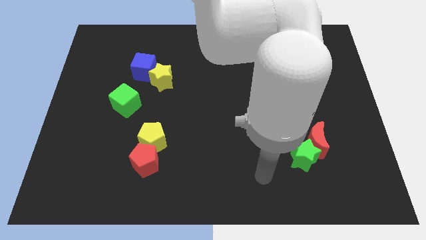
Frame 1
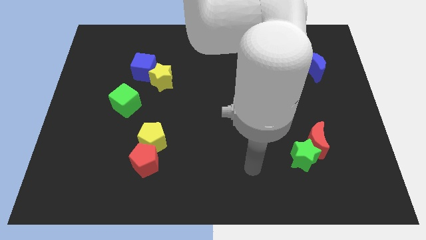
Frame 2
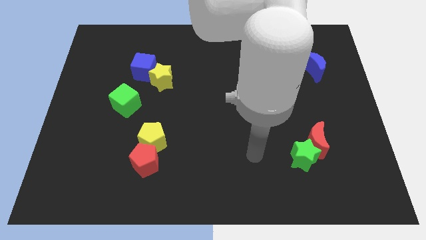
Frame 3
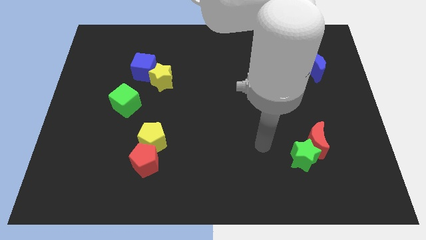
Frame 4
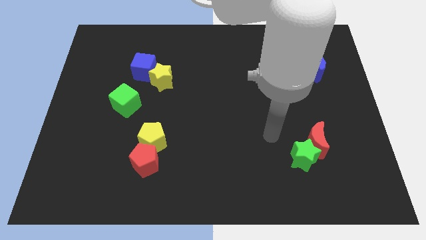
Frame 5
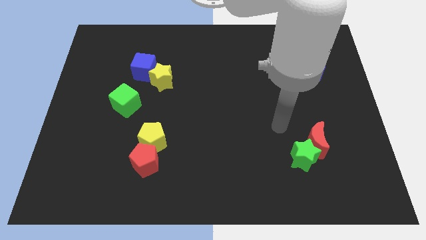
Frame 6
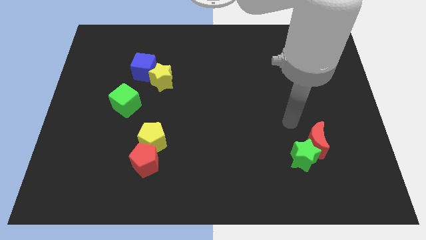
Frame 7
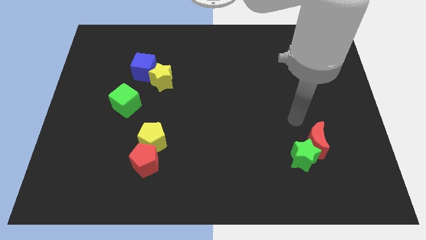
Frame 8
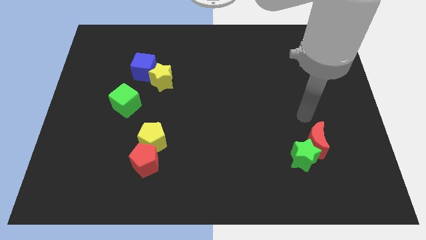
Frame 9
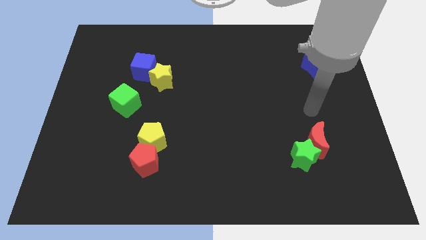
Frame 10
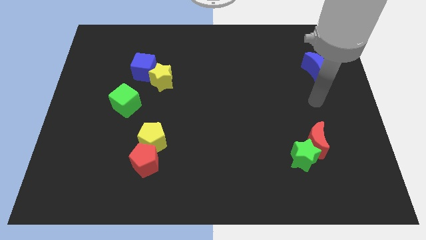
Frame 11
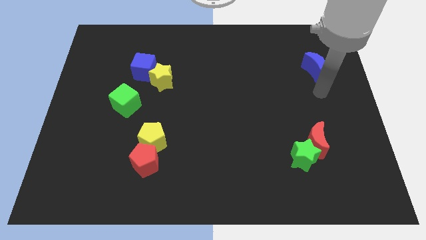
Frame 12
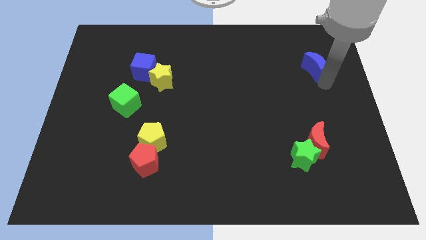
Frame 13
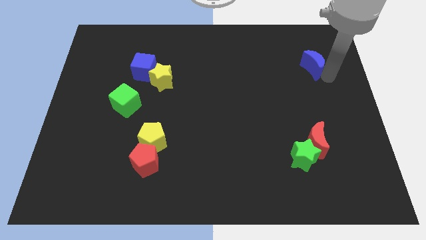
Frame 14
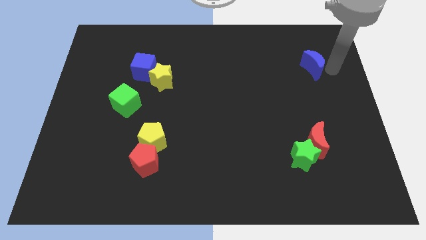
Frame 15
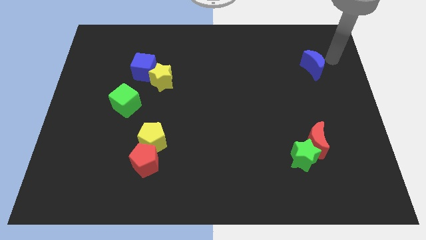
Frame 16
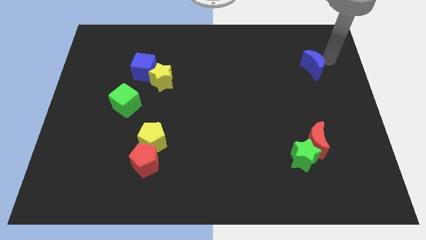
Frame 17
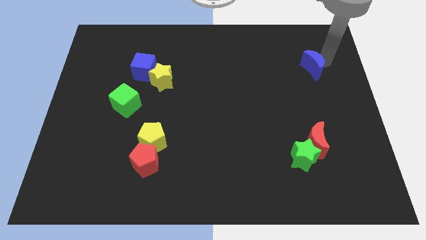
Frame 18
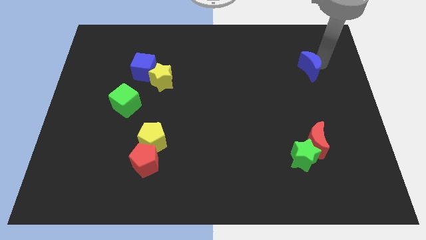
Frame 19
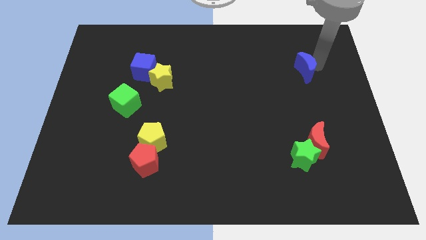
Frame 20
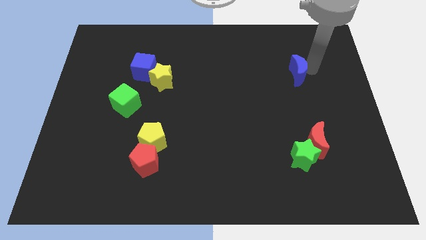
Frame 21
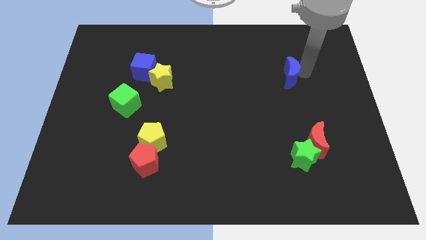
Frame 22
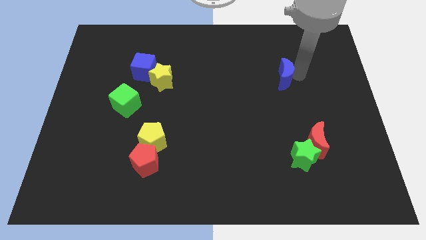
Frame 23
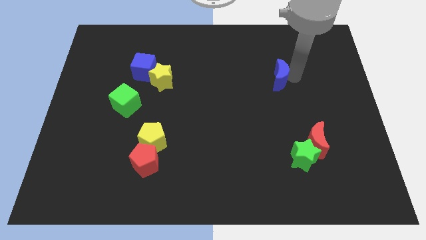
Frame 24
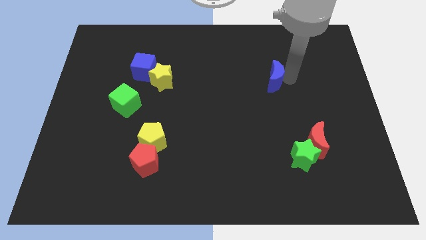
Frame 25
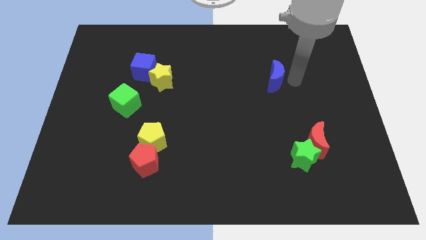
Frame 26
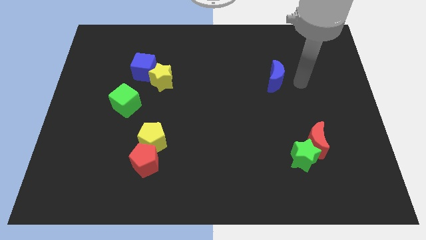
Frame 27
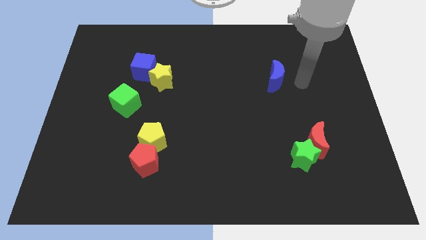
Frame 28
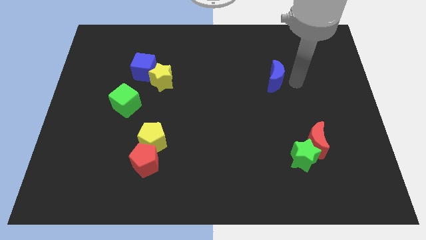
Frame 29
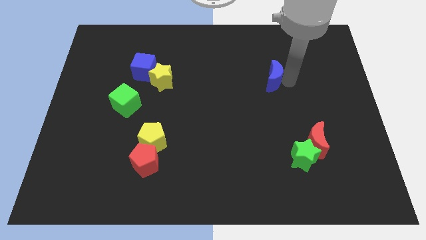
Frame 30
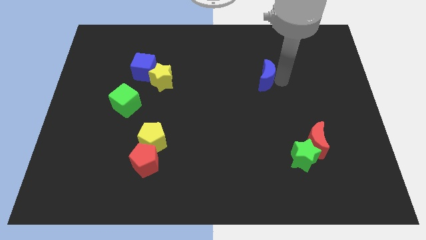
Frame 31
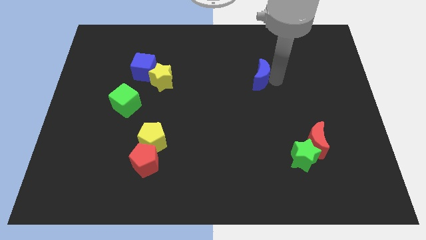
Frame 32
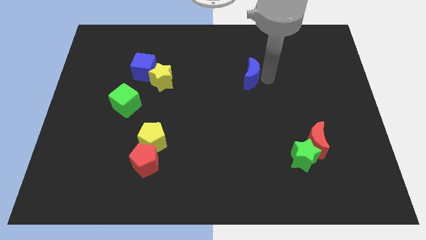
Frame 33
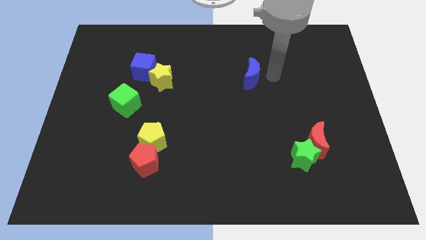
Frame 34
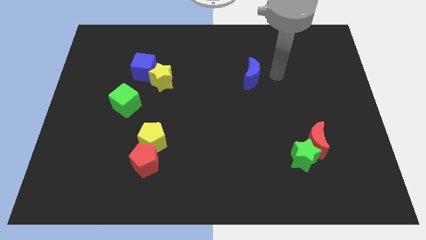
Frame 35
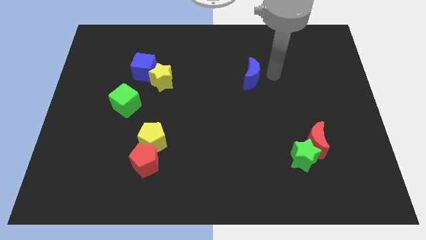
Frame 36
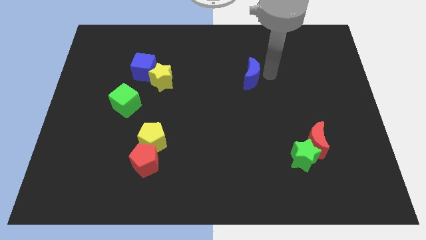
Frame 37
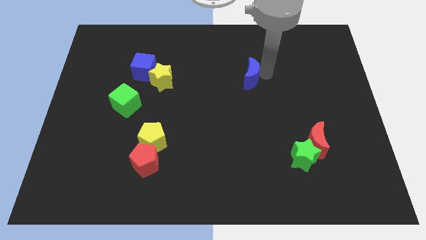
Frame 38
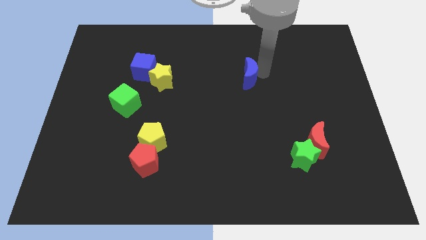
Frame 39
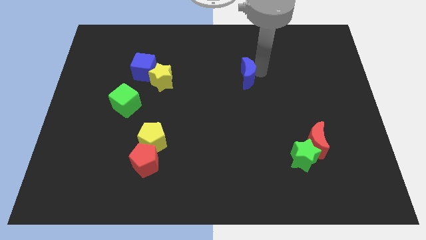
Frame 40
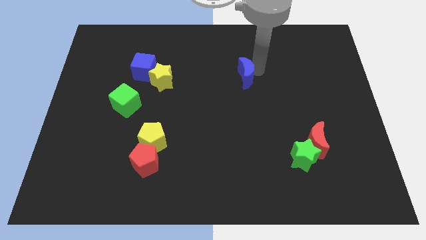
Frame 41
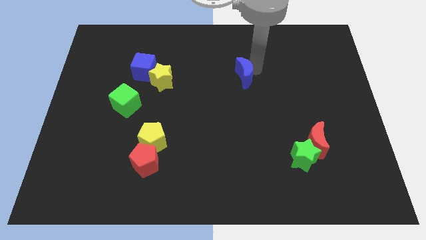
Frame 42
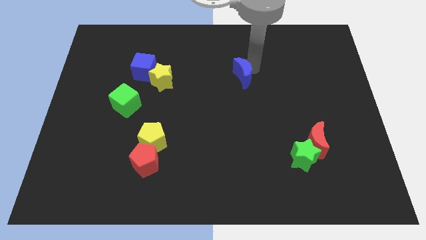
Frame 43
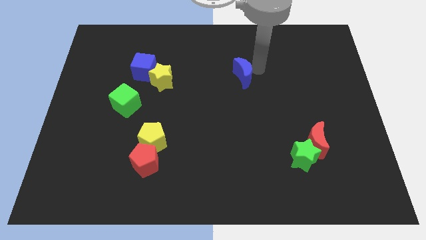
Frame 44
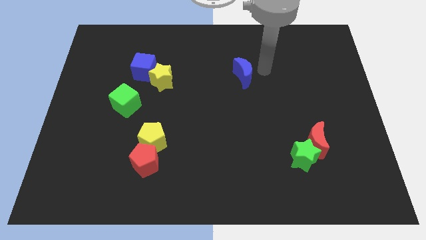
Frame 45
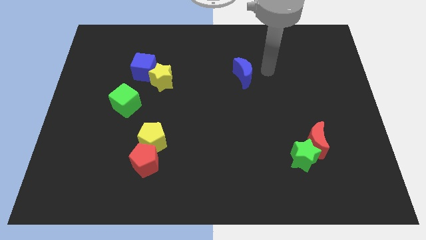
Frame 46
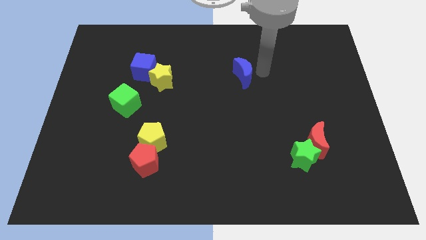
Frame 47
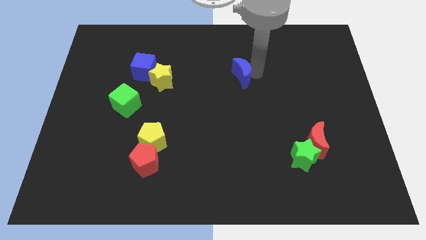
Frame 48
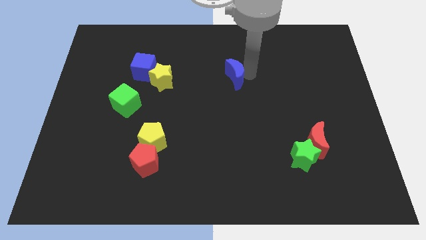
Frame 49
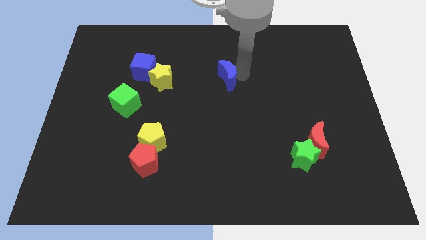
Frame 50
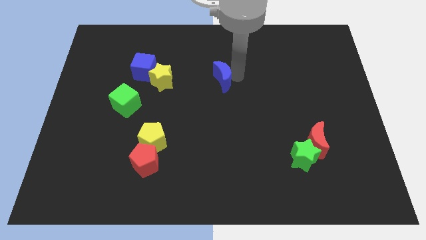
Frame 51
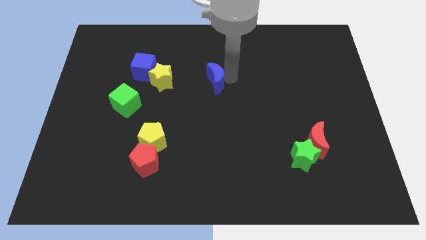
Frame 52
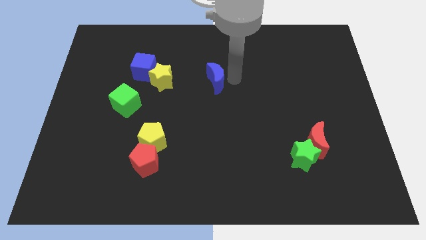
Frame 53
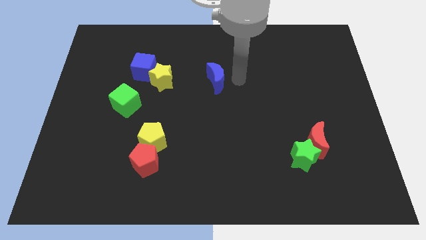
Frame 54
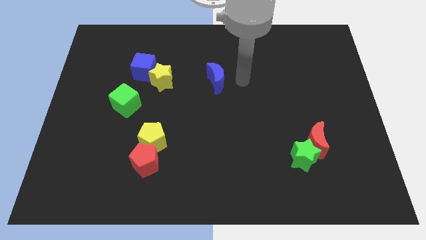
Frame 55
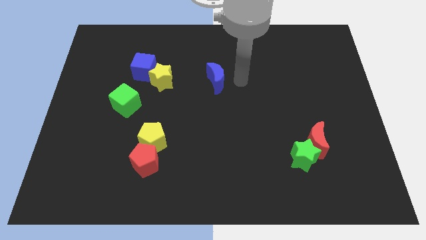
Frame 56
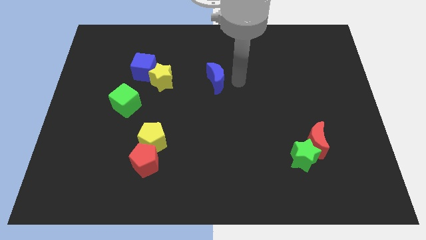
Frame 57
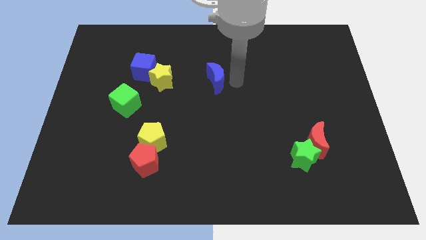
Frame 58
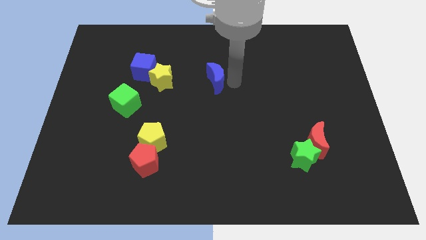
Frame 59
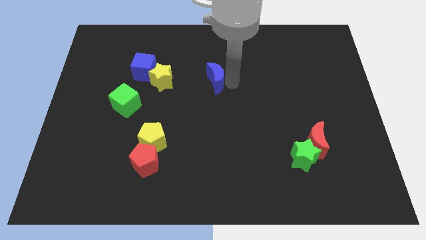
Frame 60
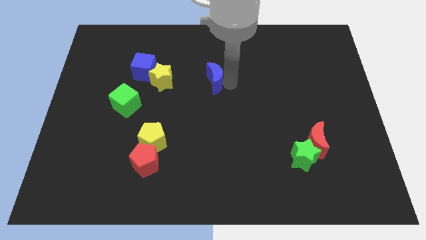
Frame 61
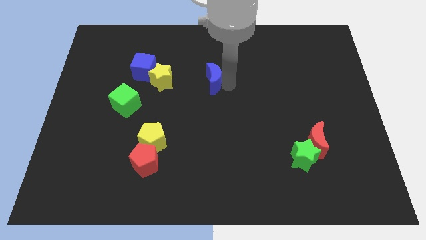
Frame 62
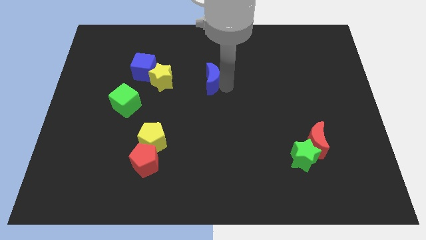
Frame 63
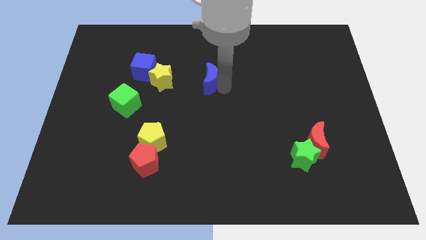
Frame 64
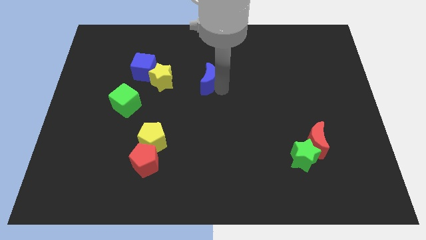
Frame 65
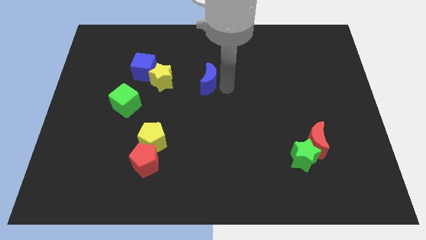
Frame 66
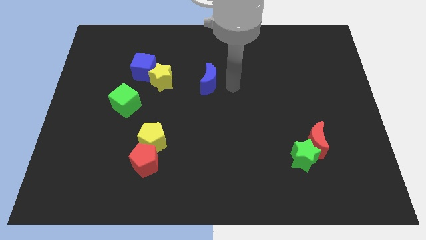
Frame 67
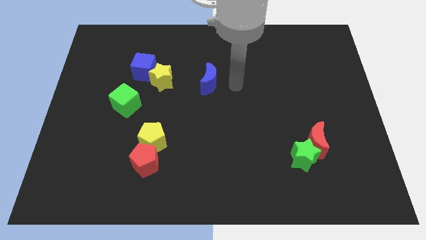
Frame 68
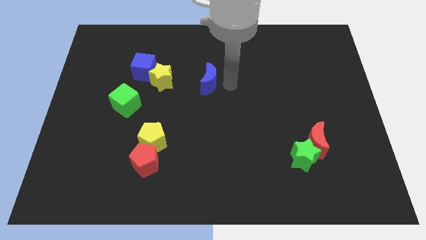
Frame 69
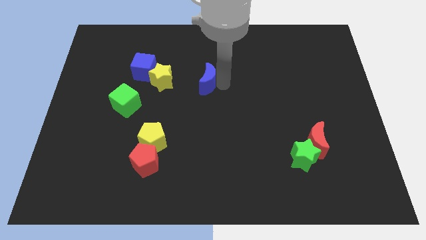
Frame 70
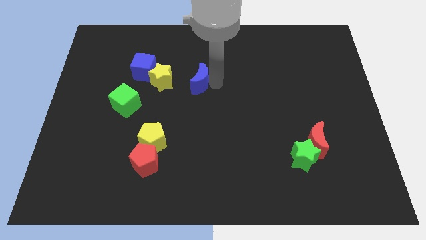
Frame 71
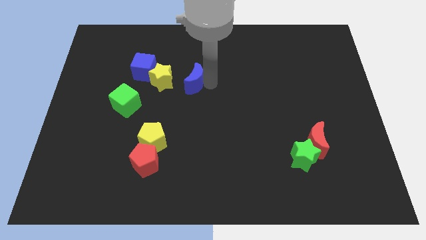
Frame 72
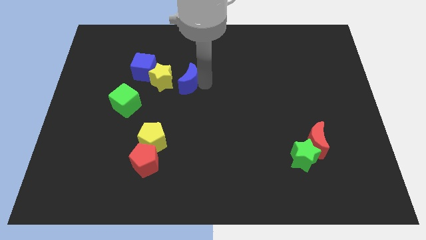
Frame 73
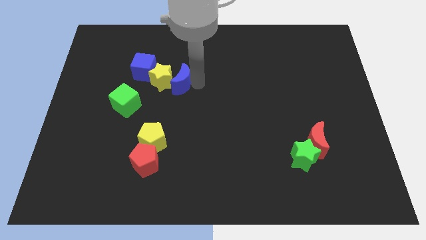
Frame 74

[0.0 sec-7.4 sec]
move the blue moon towards the yellow star
